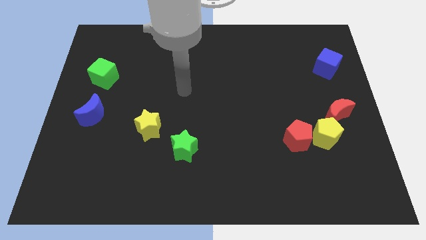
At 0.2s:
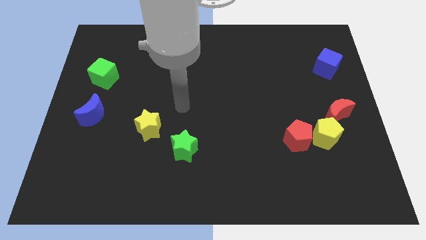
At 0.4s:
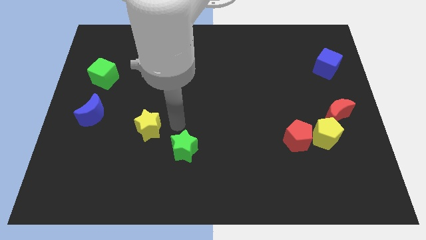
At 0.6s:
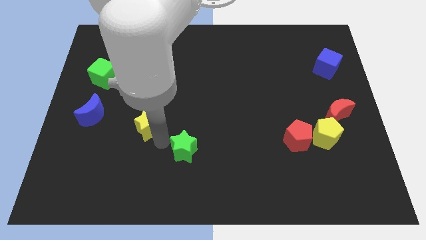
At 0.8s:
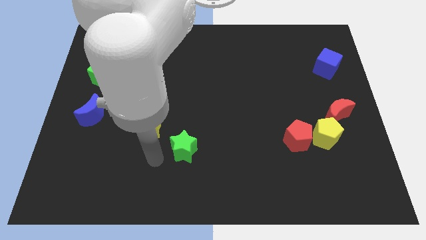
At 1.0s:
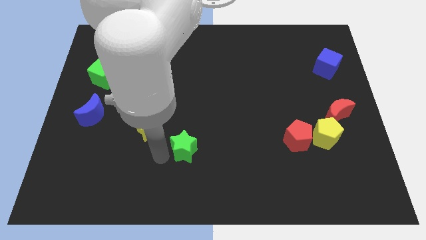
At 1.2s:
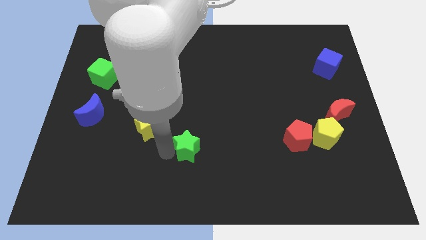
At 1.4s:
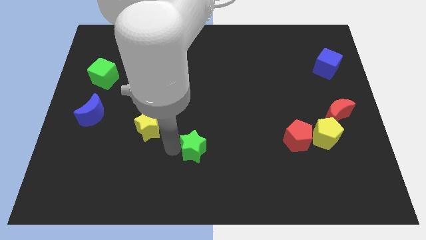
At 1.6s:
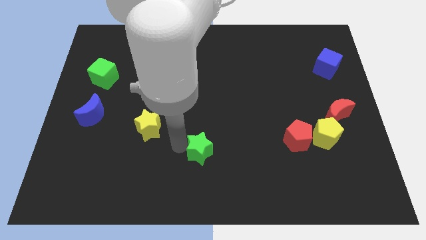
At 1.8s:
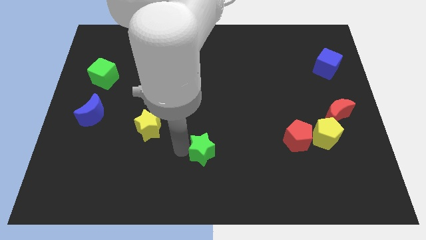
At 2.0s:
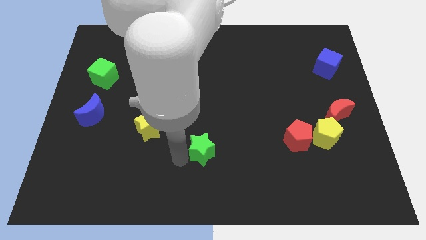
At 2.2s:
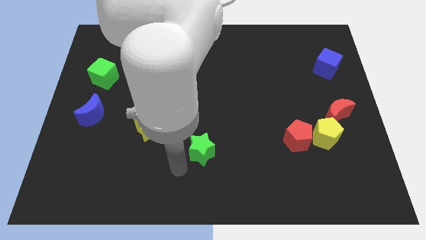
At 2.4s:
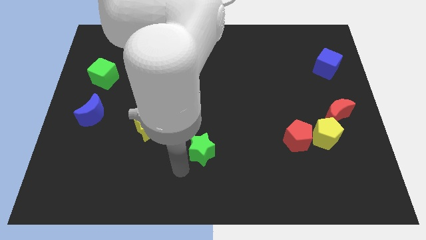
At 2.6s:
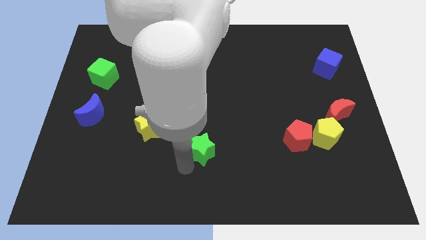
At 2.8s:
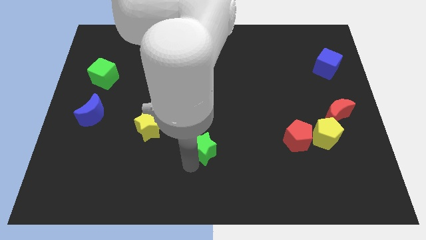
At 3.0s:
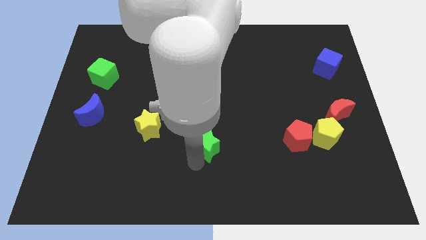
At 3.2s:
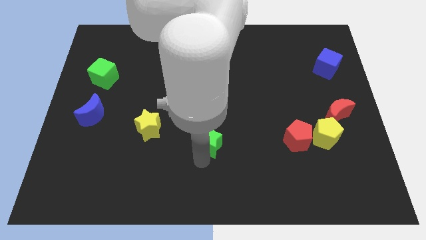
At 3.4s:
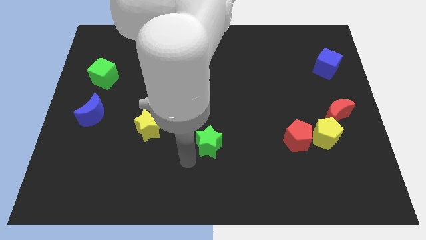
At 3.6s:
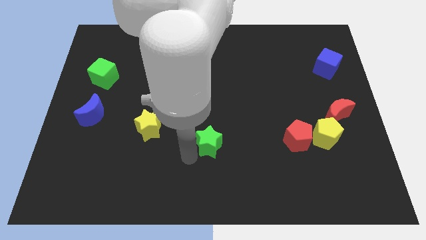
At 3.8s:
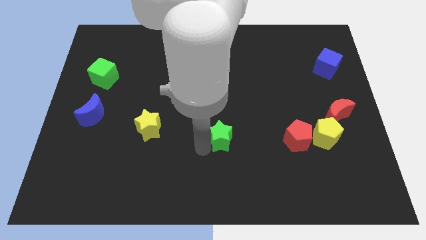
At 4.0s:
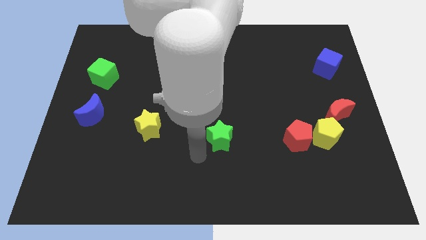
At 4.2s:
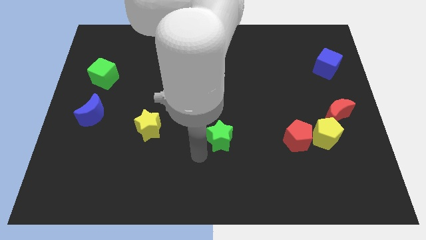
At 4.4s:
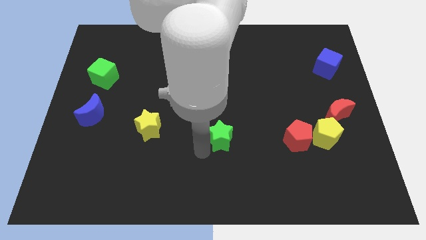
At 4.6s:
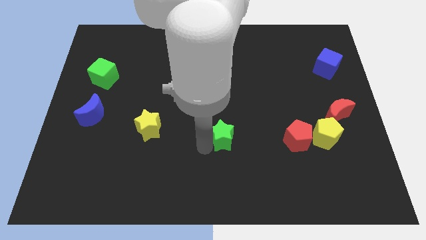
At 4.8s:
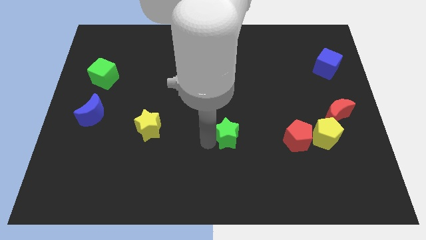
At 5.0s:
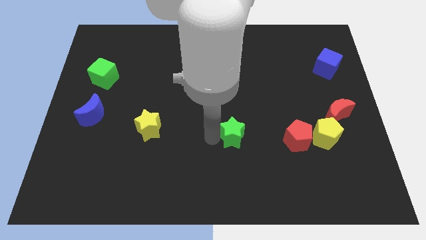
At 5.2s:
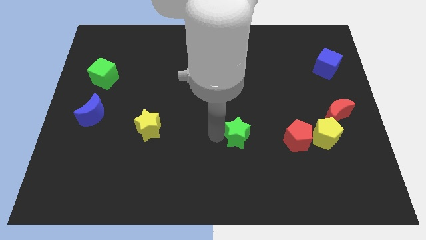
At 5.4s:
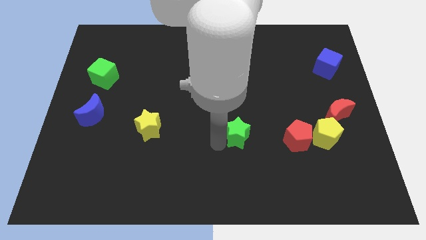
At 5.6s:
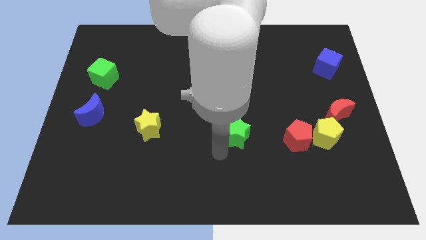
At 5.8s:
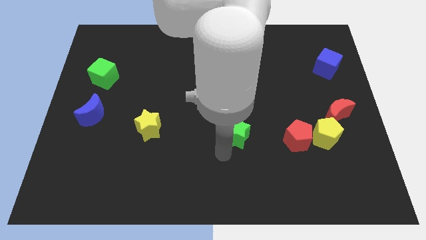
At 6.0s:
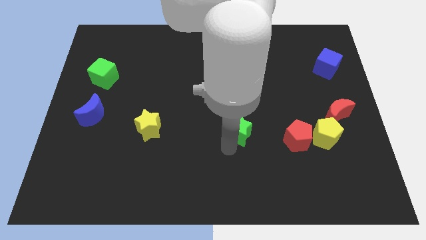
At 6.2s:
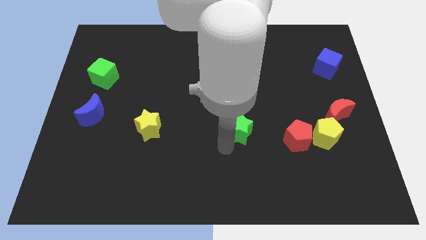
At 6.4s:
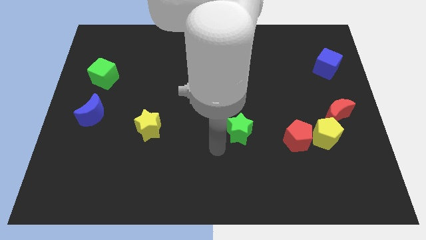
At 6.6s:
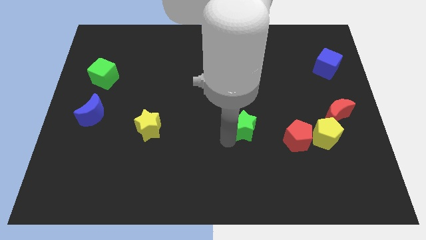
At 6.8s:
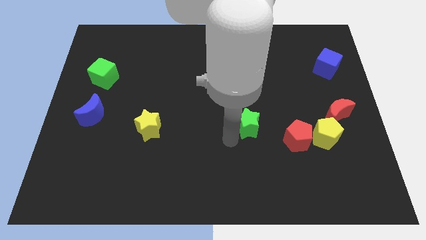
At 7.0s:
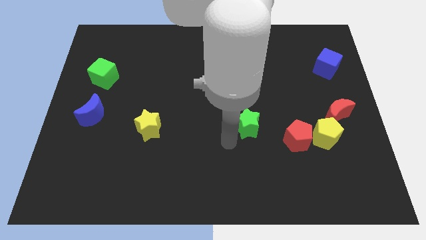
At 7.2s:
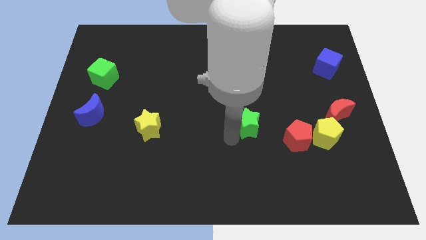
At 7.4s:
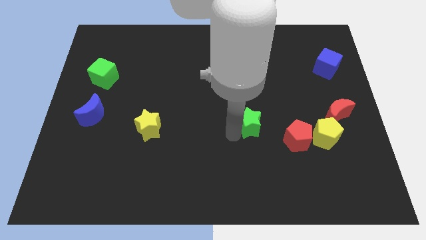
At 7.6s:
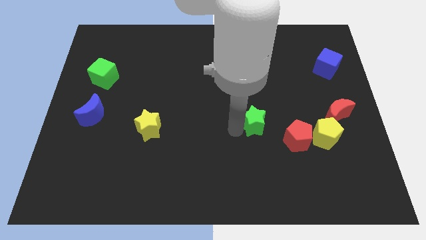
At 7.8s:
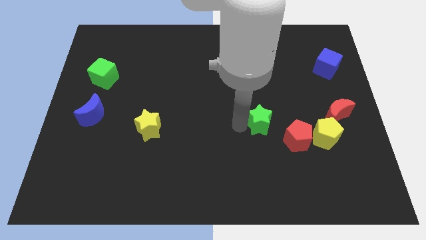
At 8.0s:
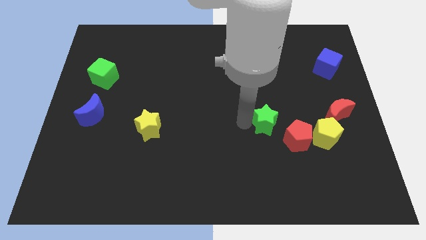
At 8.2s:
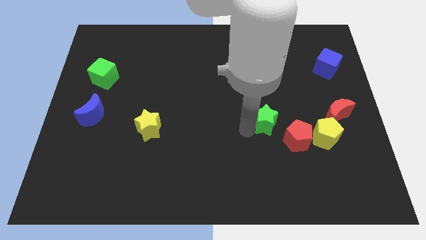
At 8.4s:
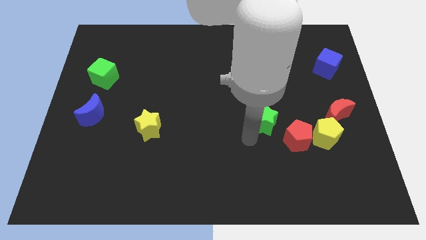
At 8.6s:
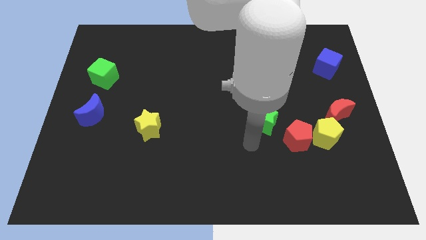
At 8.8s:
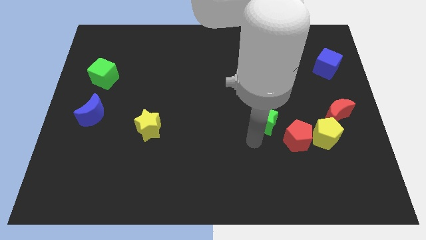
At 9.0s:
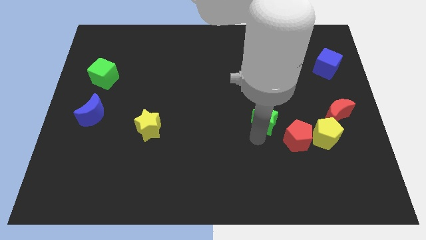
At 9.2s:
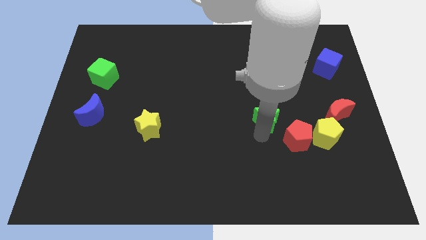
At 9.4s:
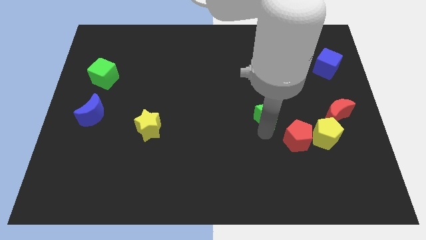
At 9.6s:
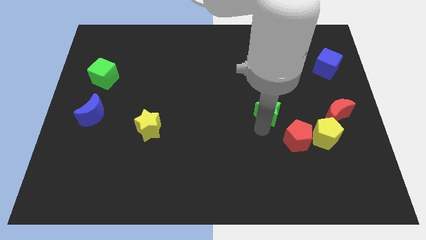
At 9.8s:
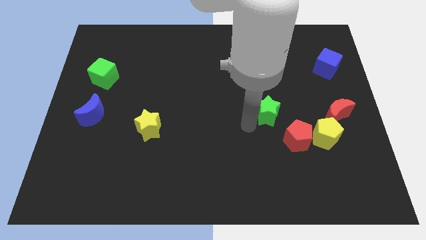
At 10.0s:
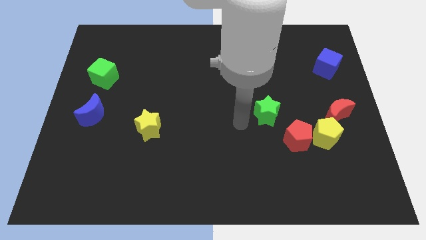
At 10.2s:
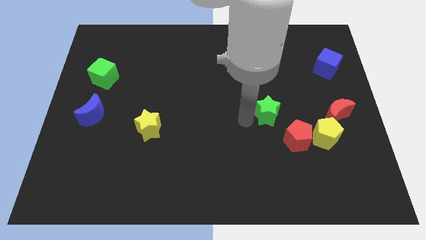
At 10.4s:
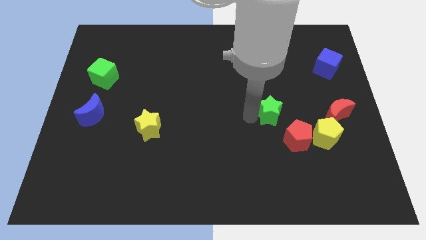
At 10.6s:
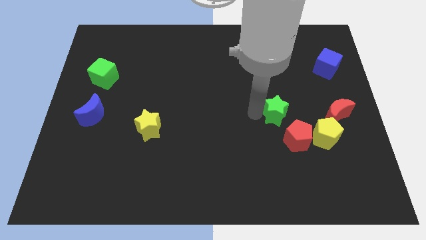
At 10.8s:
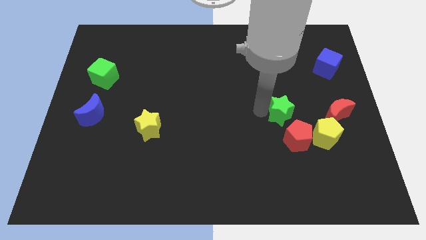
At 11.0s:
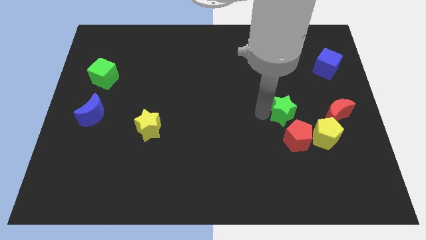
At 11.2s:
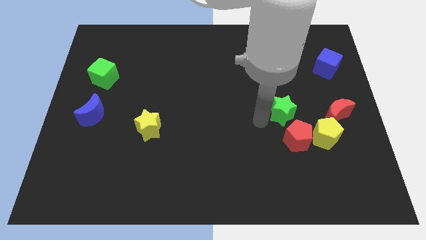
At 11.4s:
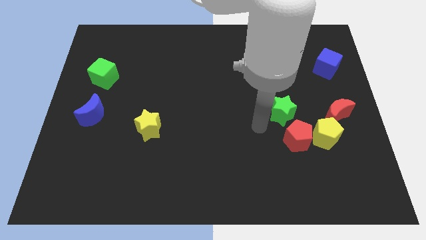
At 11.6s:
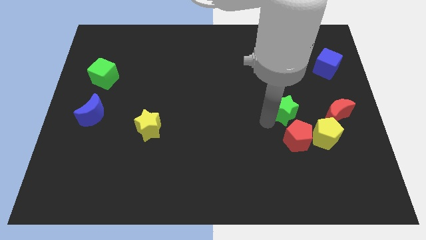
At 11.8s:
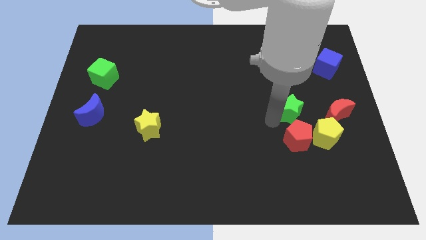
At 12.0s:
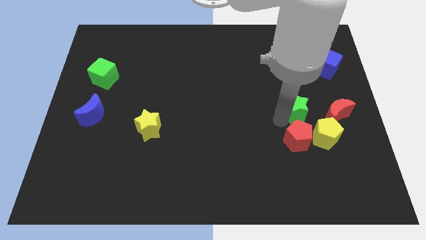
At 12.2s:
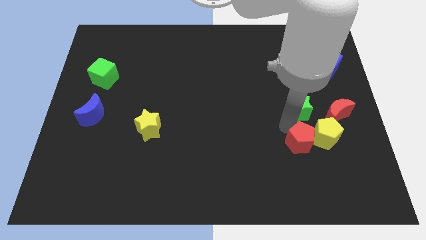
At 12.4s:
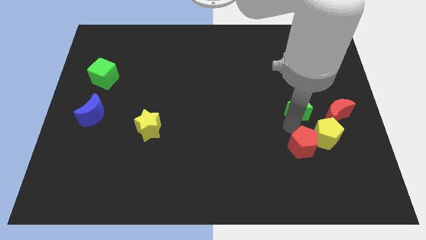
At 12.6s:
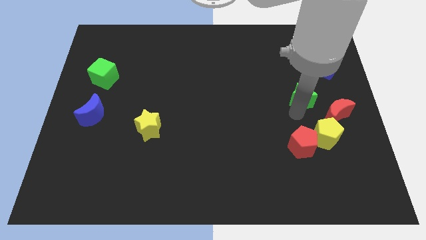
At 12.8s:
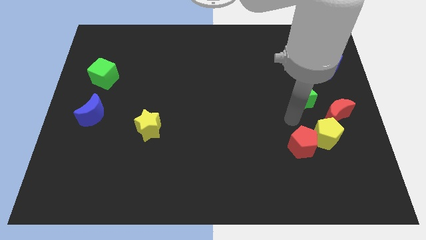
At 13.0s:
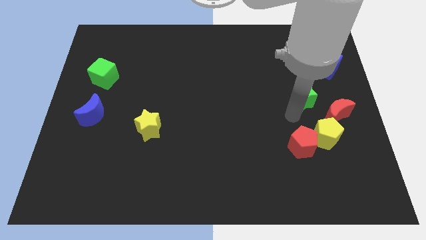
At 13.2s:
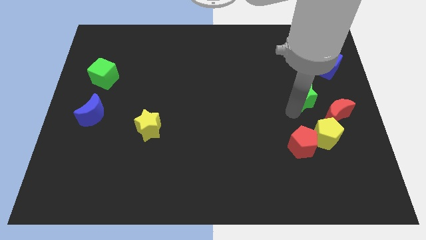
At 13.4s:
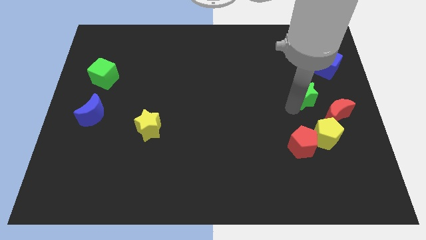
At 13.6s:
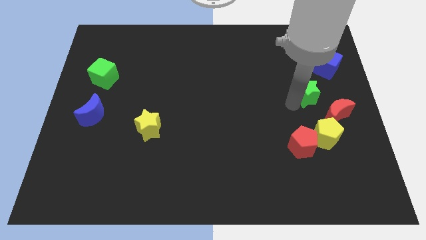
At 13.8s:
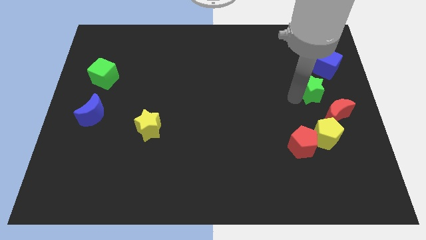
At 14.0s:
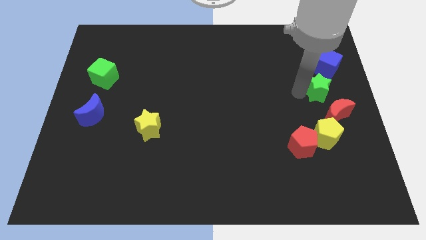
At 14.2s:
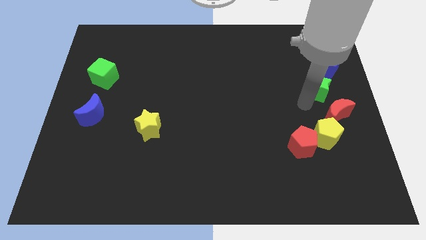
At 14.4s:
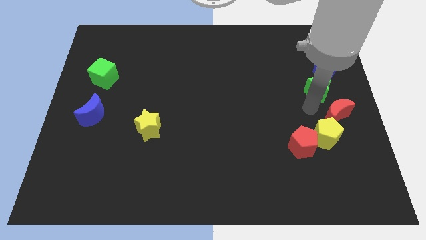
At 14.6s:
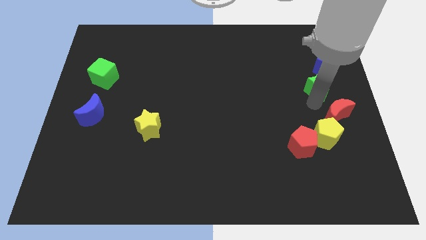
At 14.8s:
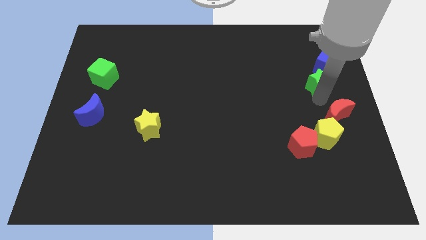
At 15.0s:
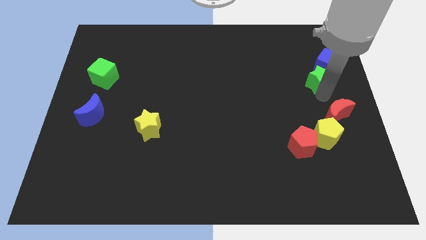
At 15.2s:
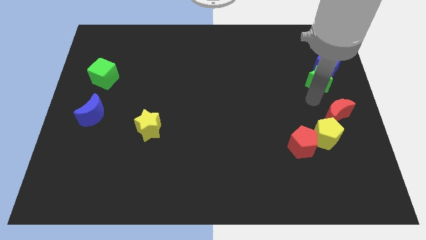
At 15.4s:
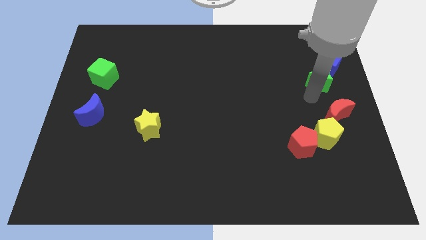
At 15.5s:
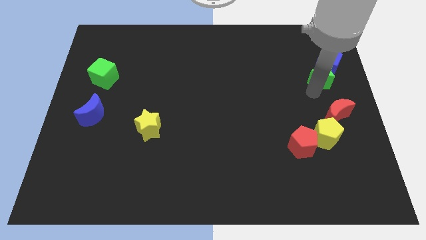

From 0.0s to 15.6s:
slide the green star close to the blue cube
